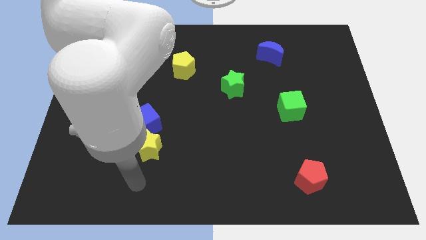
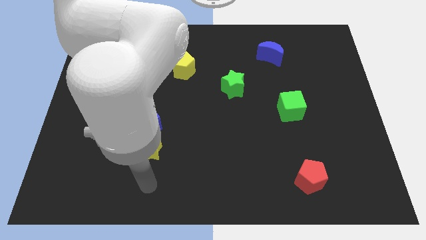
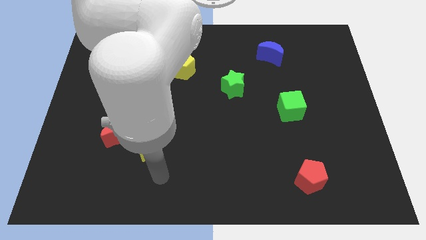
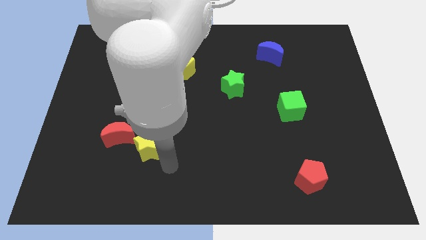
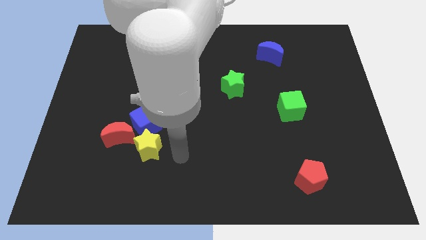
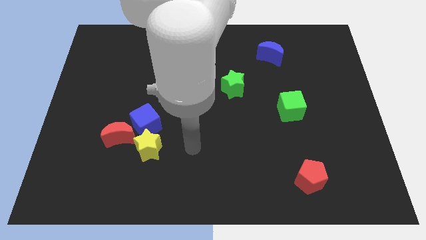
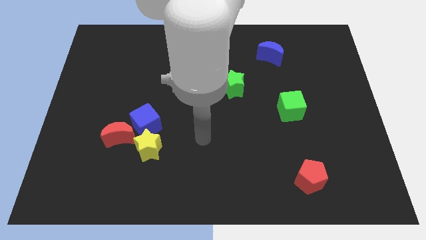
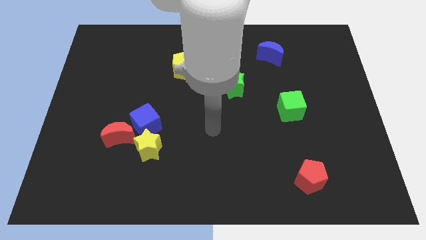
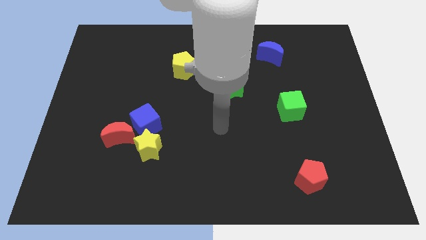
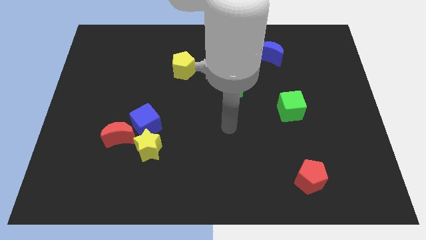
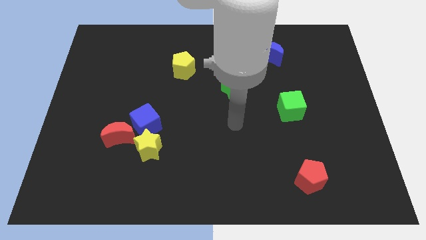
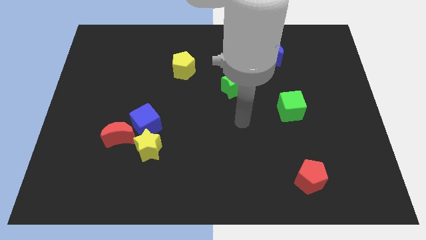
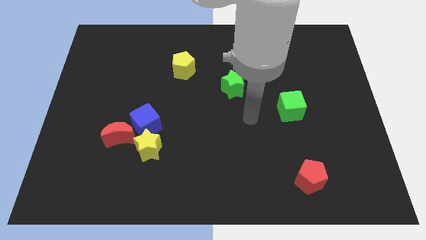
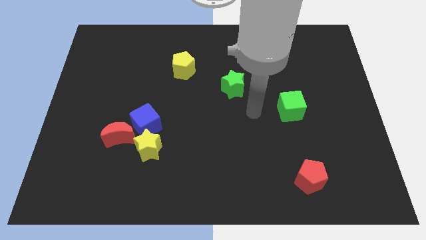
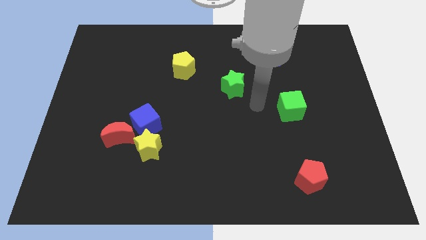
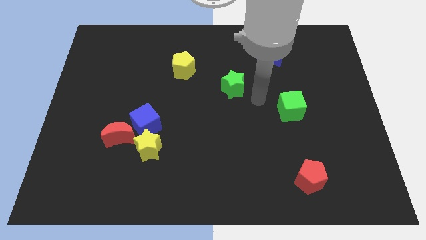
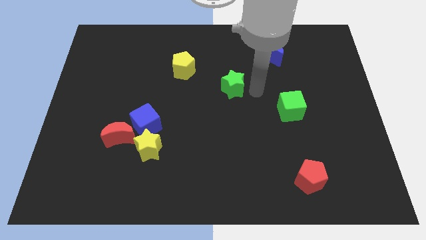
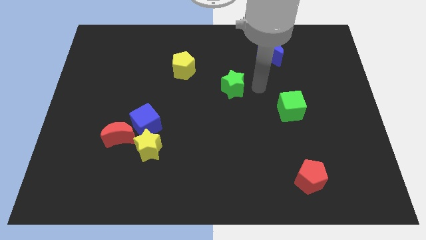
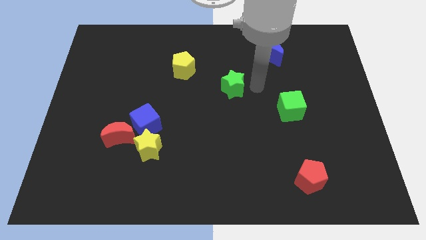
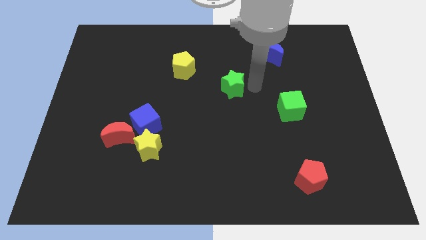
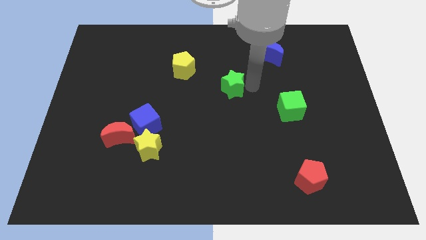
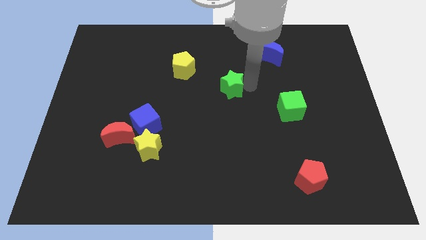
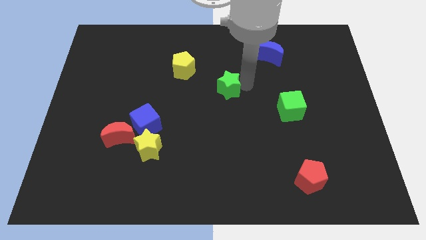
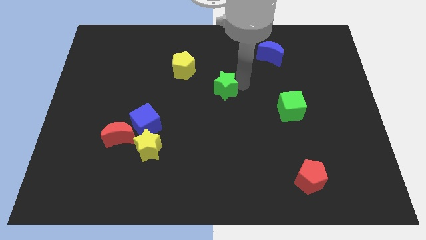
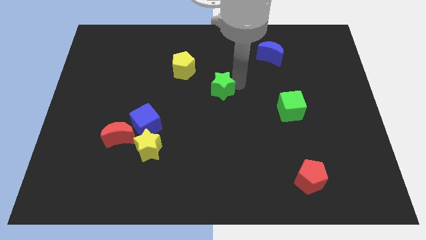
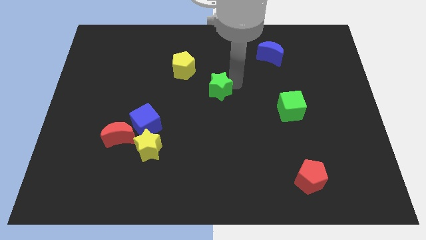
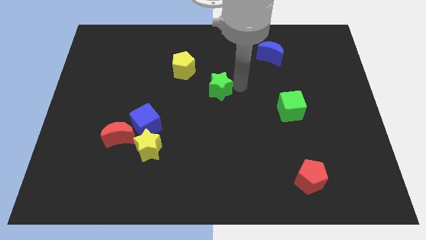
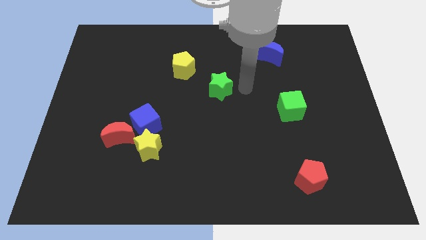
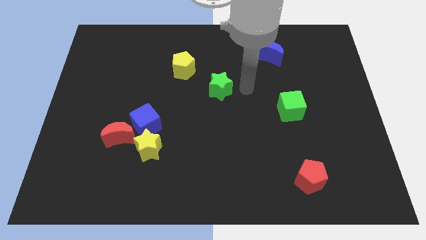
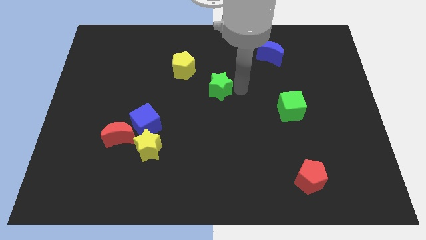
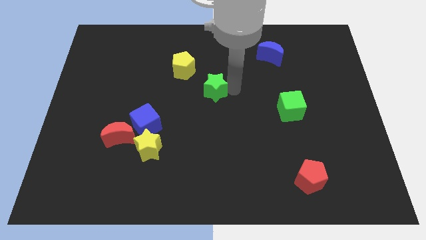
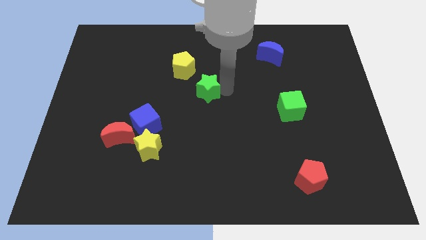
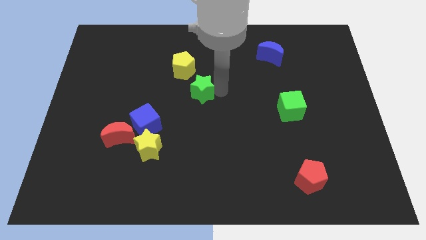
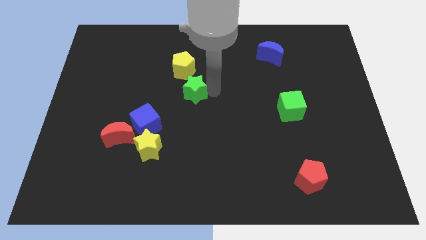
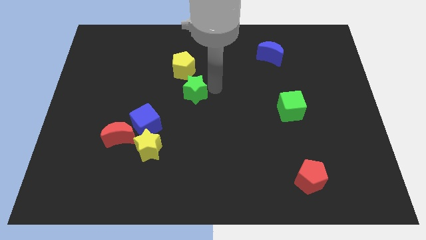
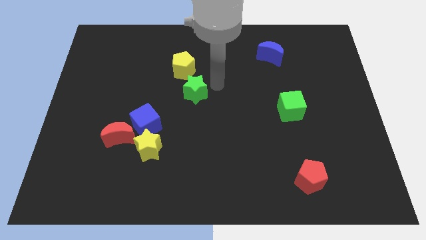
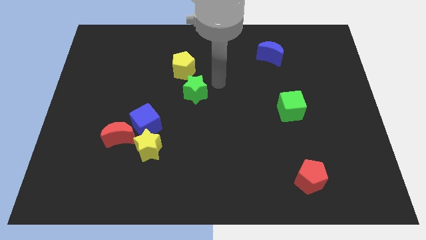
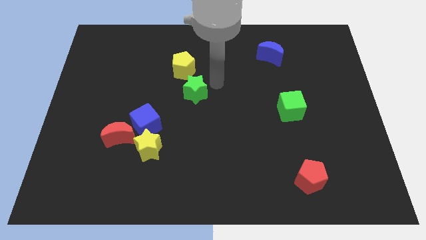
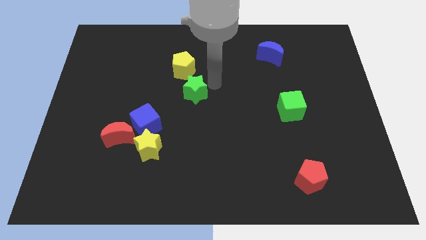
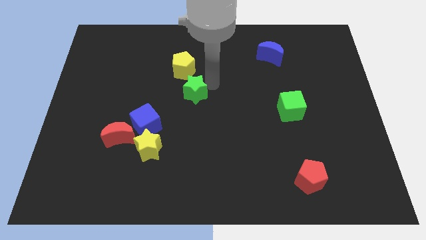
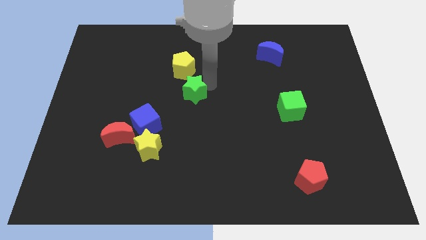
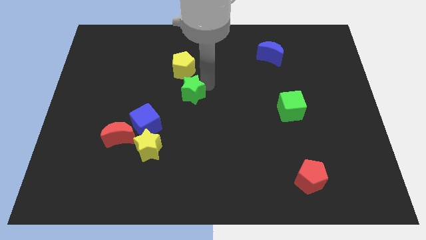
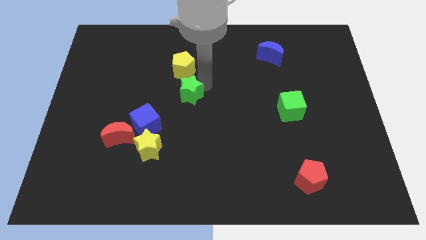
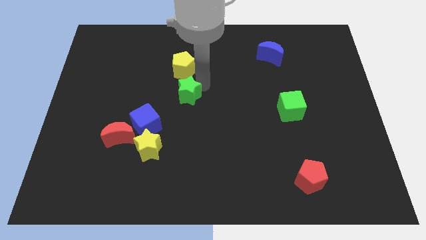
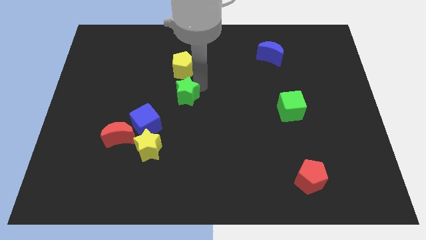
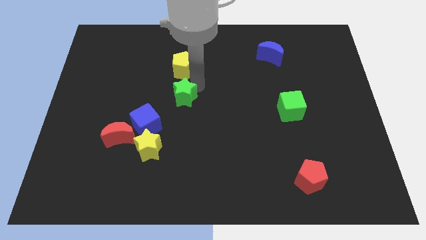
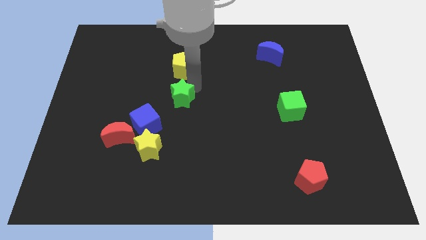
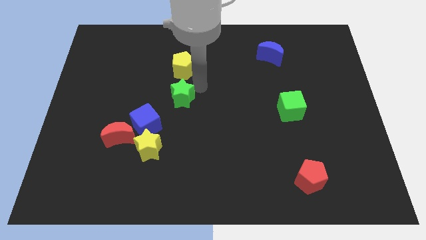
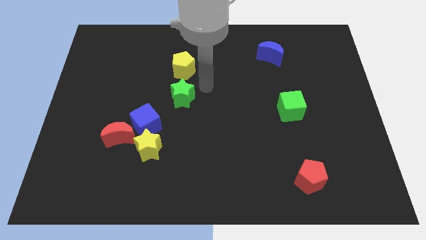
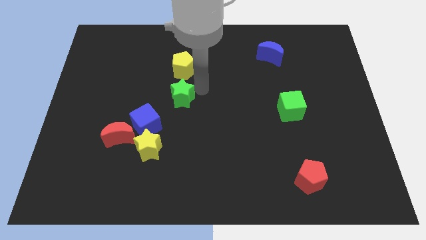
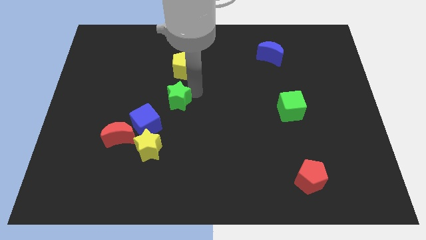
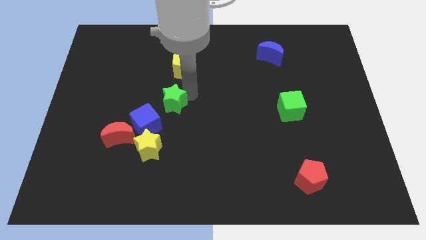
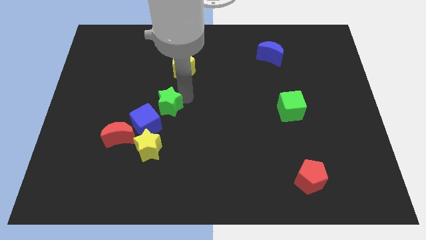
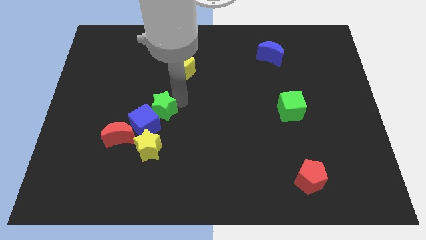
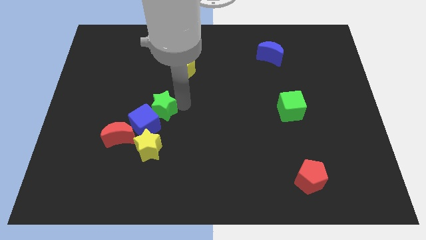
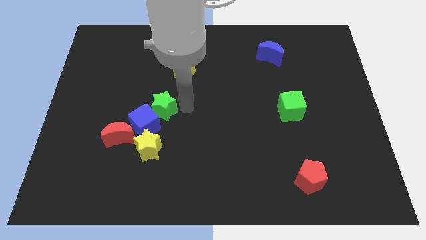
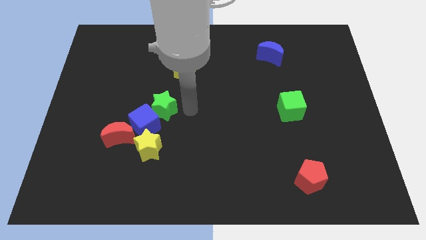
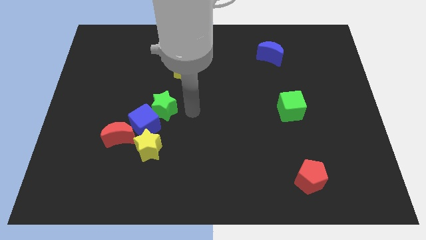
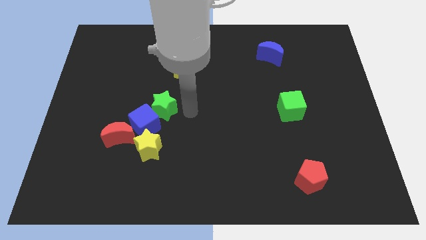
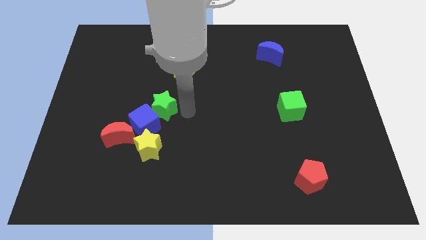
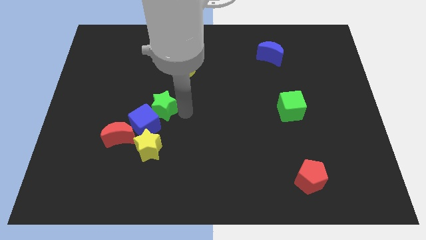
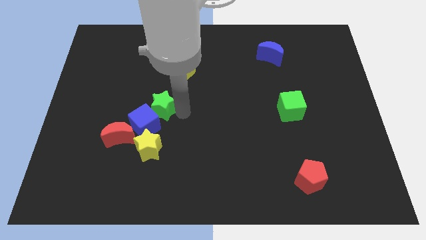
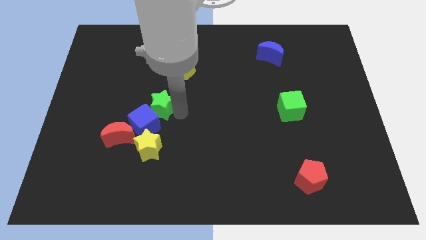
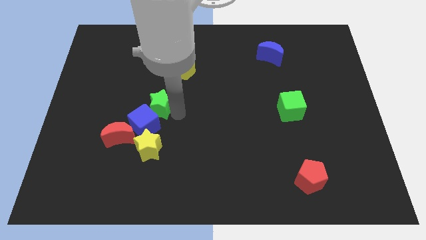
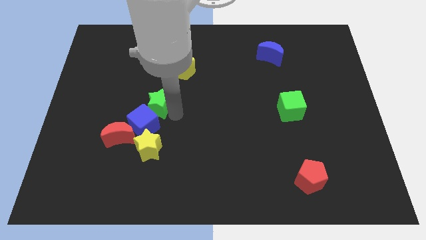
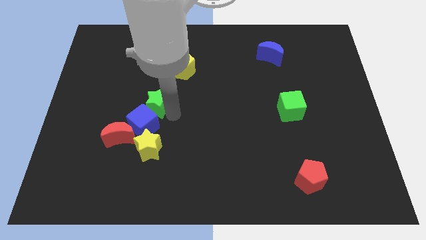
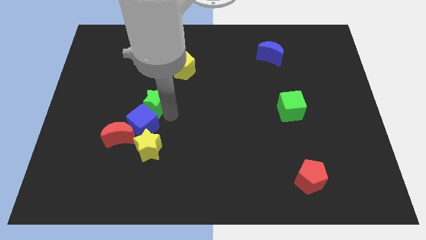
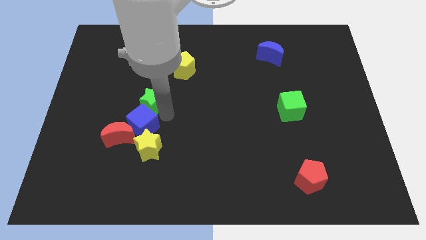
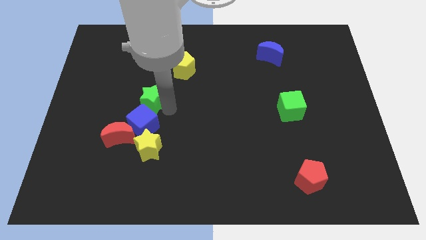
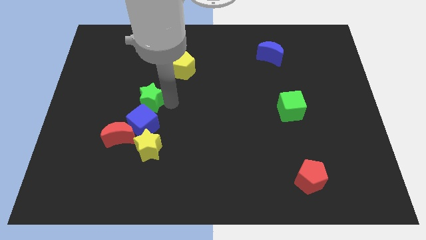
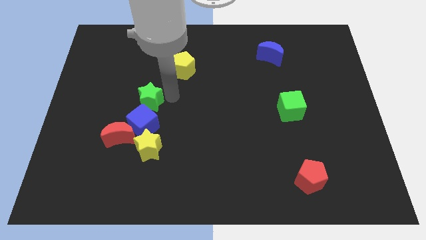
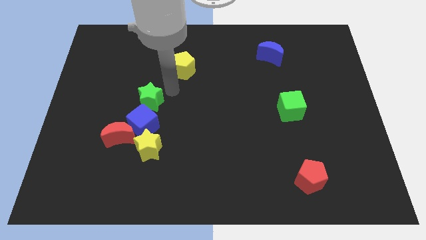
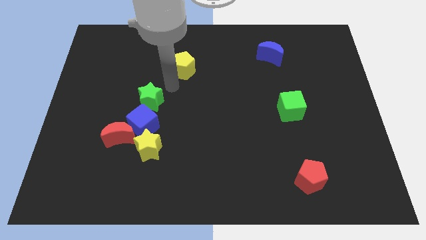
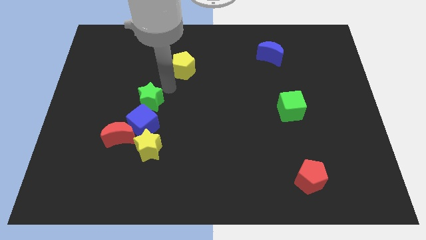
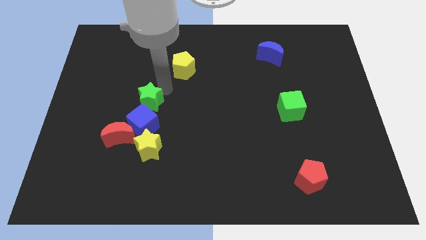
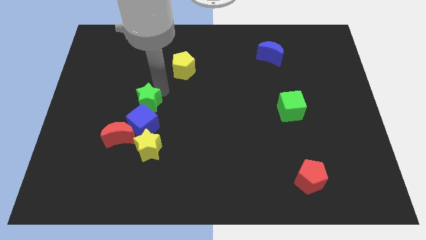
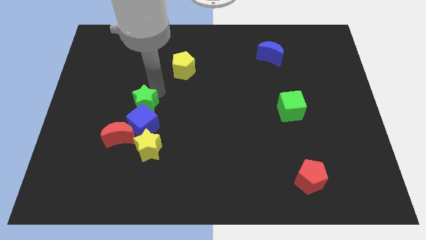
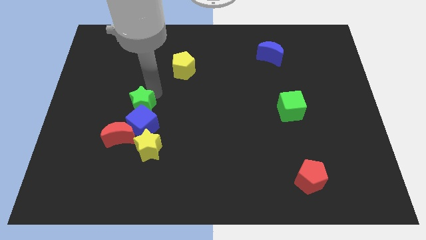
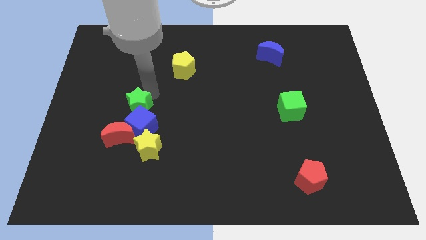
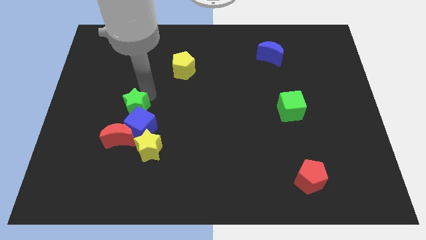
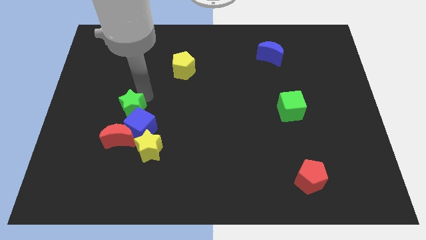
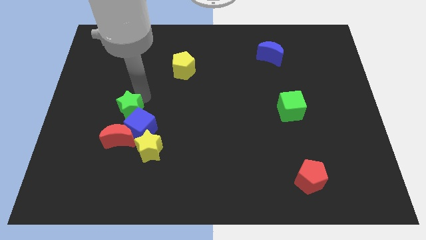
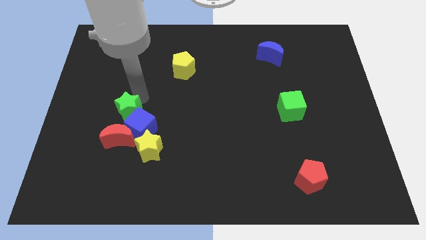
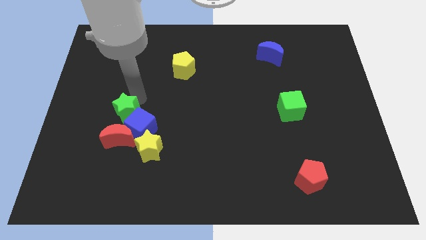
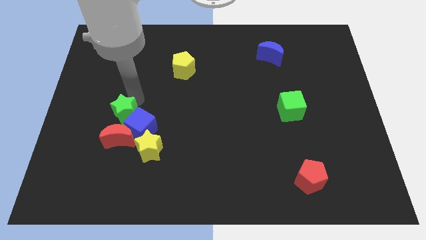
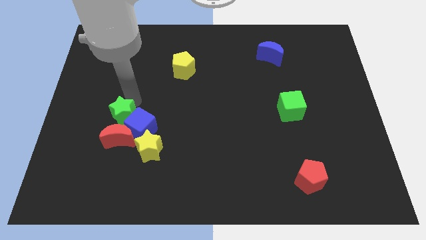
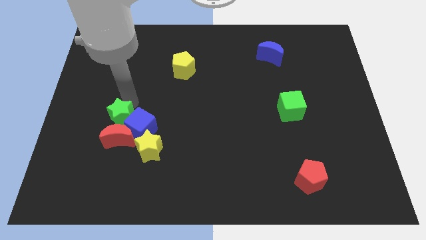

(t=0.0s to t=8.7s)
slide the green star close to the red moon
